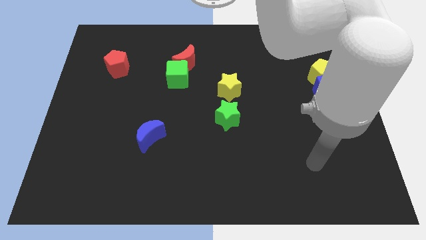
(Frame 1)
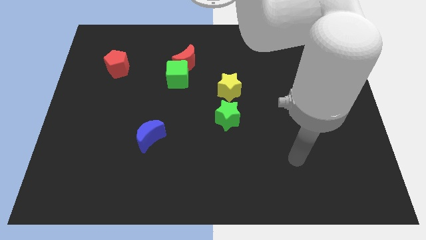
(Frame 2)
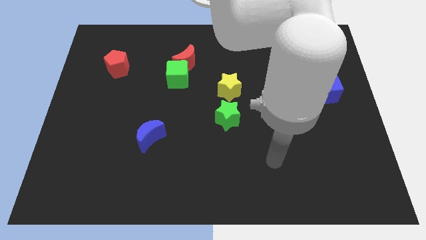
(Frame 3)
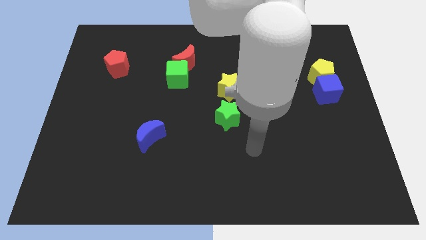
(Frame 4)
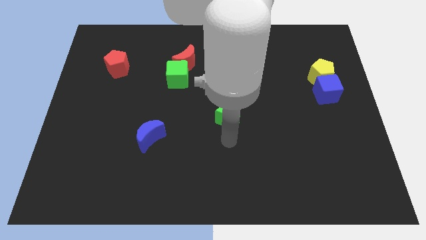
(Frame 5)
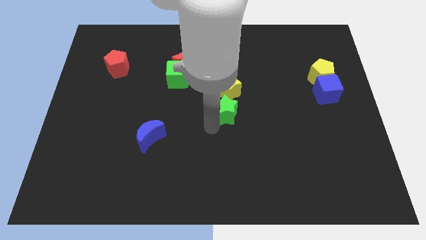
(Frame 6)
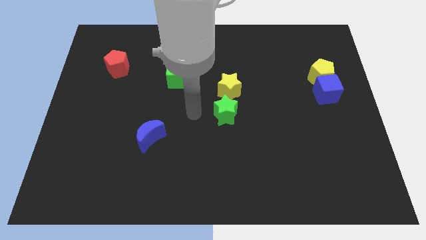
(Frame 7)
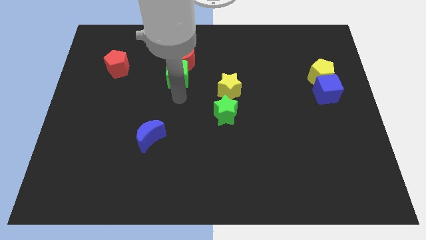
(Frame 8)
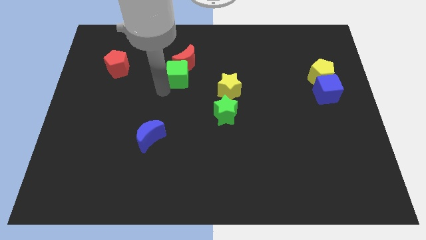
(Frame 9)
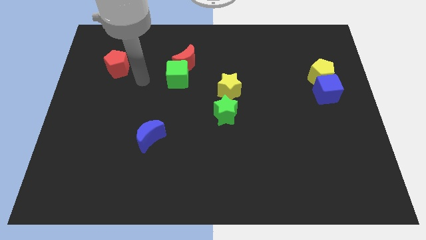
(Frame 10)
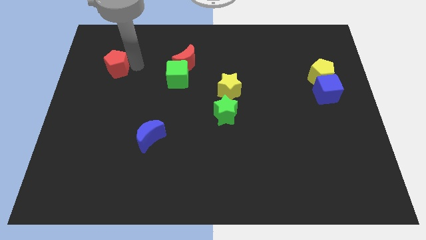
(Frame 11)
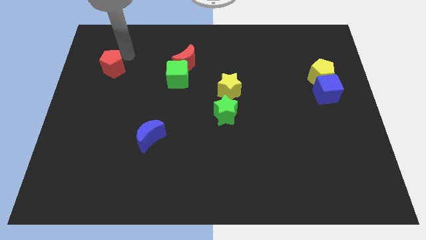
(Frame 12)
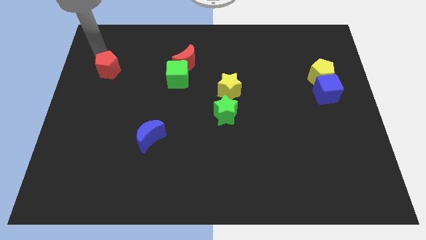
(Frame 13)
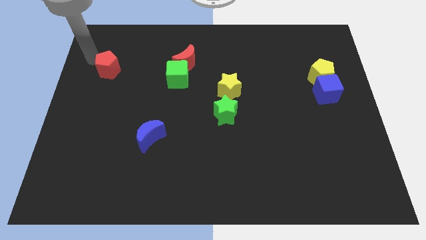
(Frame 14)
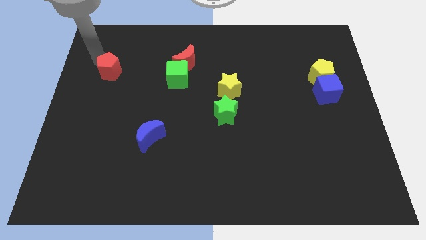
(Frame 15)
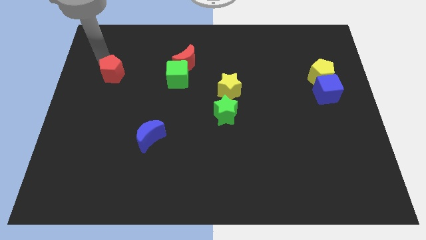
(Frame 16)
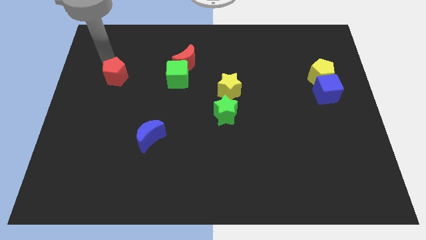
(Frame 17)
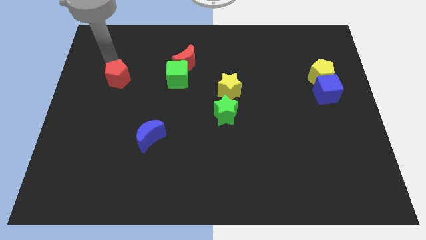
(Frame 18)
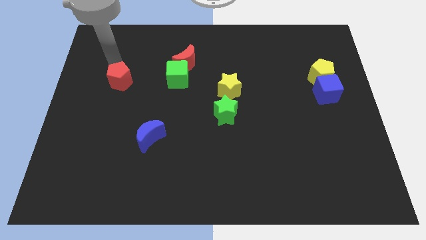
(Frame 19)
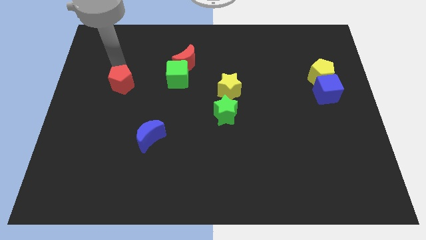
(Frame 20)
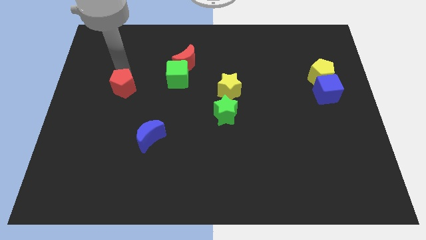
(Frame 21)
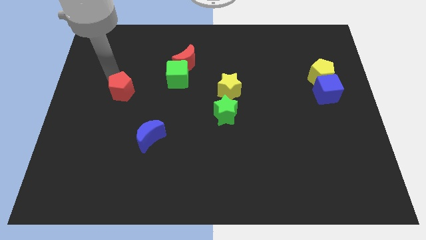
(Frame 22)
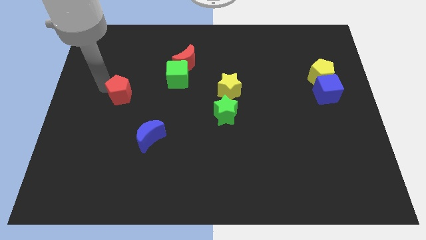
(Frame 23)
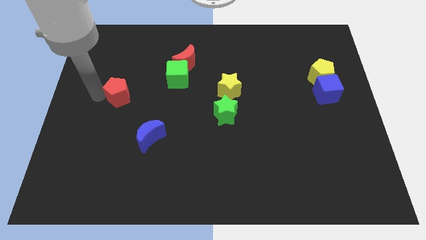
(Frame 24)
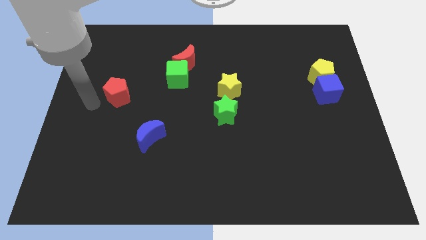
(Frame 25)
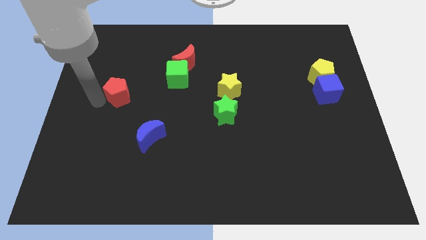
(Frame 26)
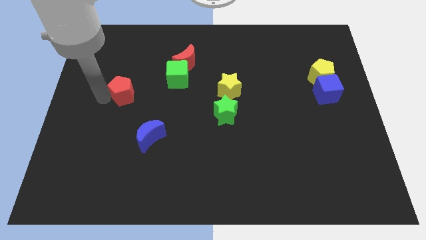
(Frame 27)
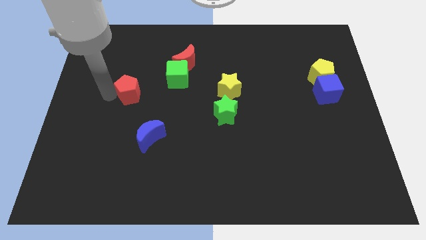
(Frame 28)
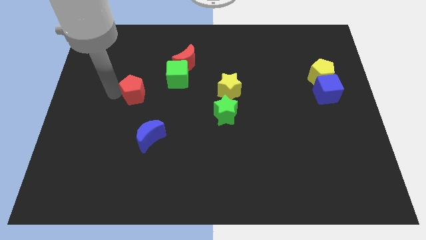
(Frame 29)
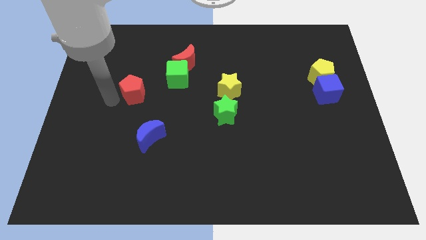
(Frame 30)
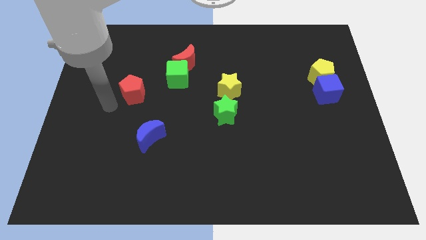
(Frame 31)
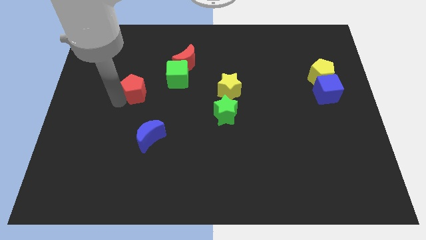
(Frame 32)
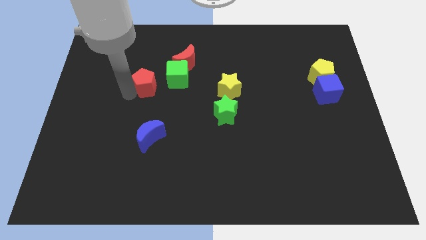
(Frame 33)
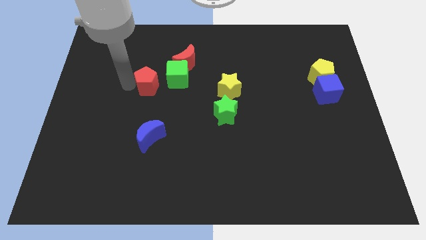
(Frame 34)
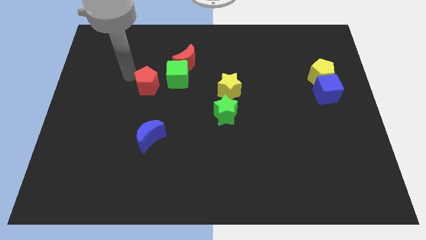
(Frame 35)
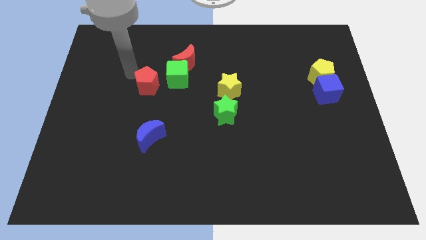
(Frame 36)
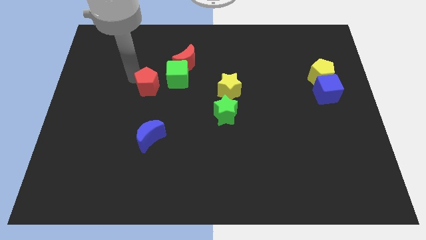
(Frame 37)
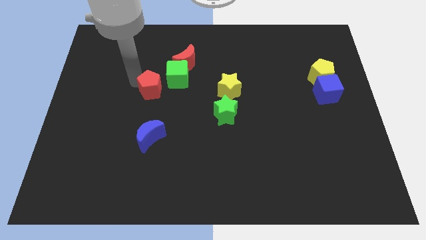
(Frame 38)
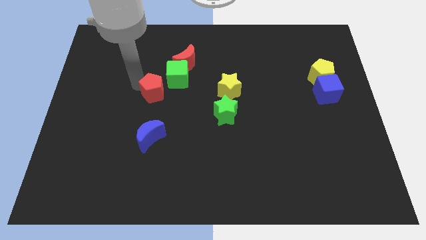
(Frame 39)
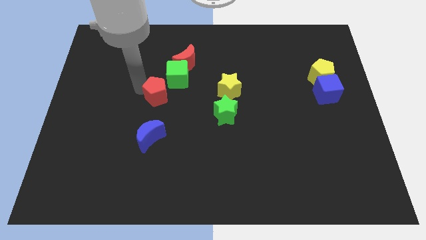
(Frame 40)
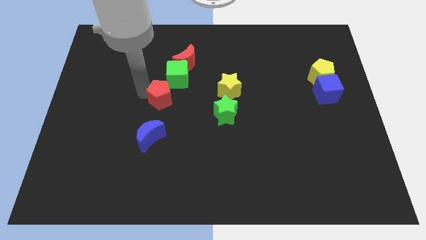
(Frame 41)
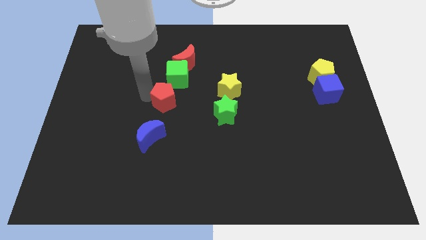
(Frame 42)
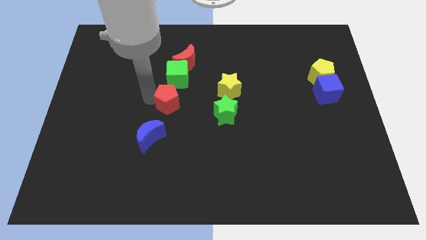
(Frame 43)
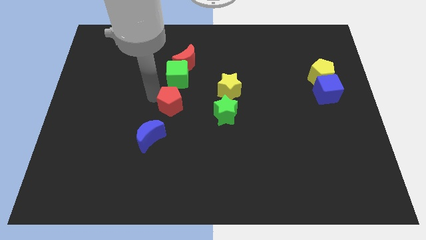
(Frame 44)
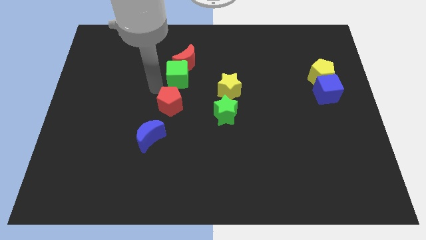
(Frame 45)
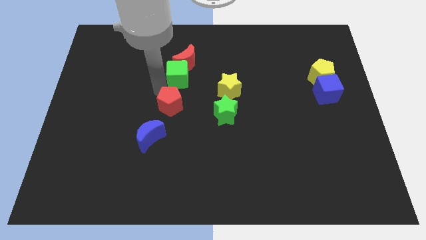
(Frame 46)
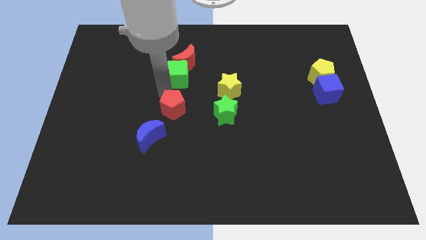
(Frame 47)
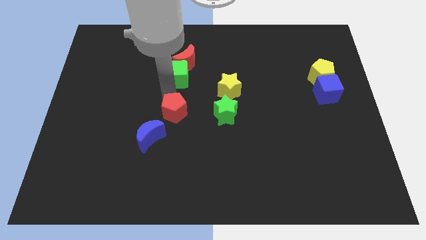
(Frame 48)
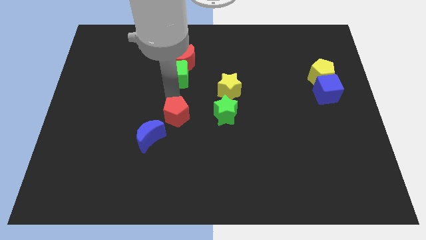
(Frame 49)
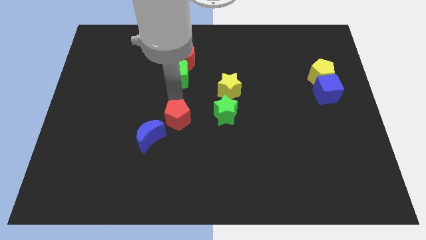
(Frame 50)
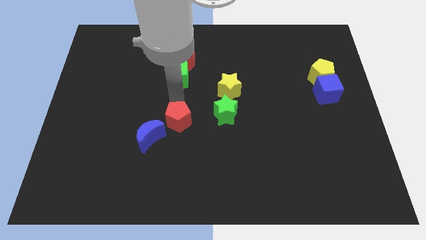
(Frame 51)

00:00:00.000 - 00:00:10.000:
put the red pentagon just right of the blue moon

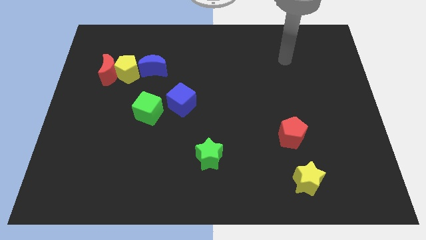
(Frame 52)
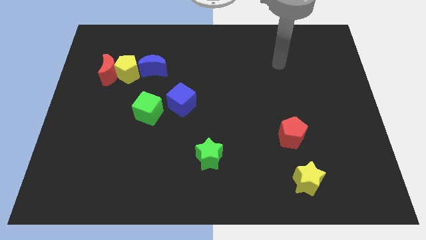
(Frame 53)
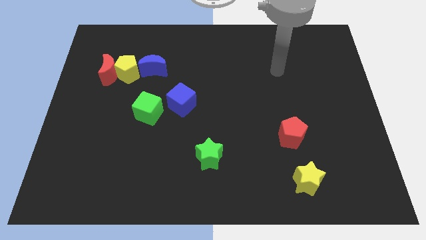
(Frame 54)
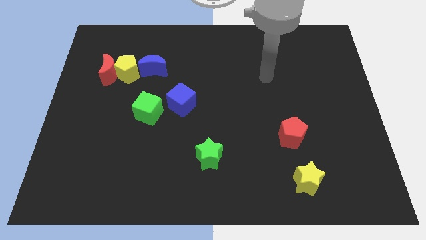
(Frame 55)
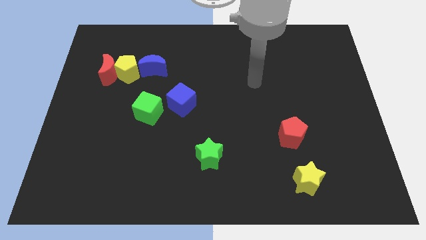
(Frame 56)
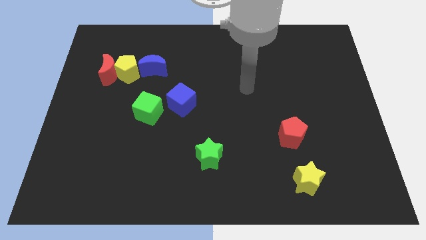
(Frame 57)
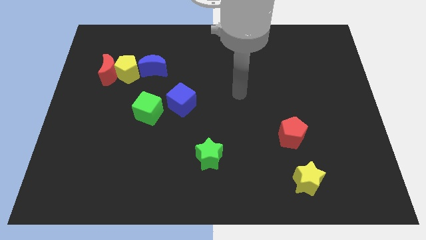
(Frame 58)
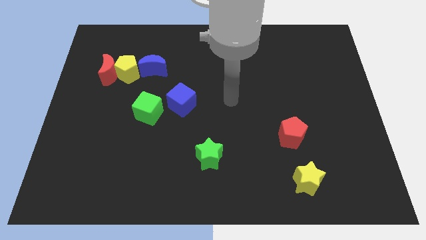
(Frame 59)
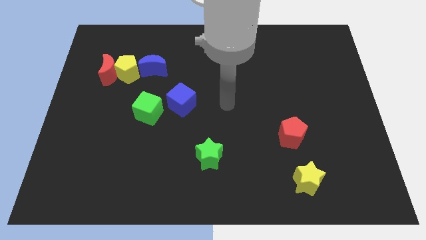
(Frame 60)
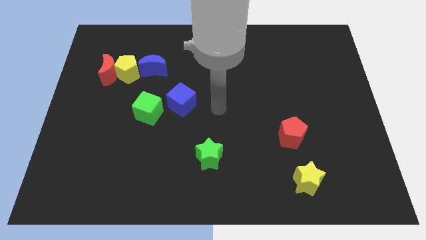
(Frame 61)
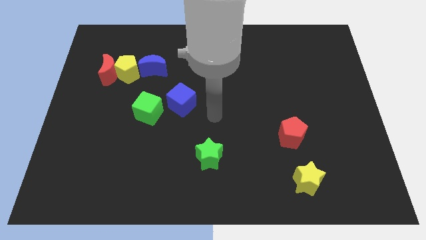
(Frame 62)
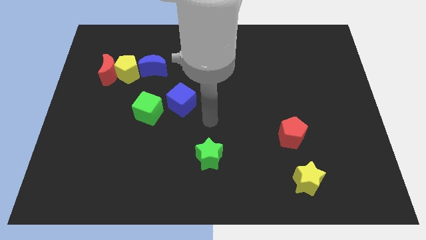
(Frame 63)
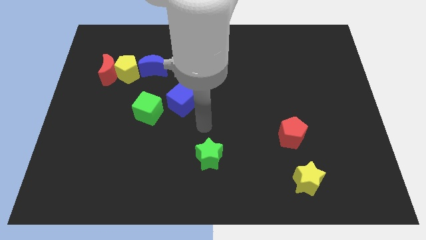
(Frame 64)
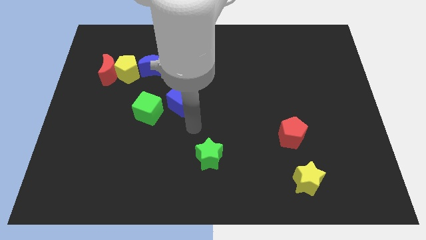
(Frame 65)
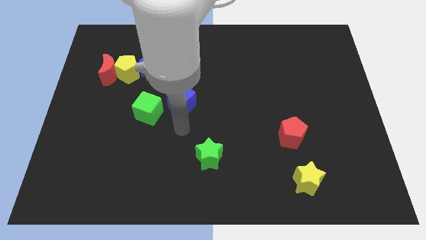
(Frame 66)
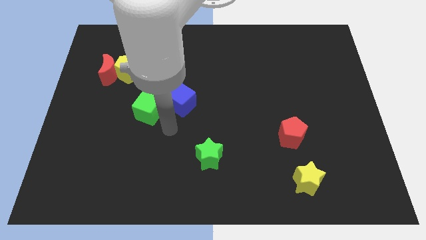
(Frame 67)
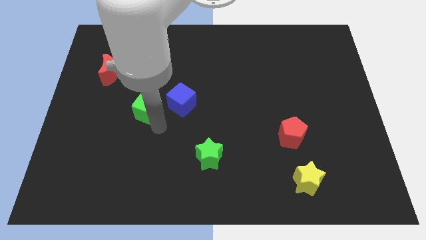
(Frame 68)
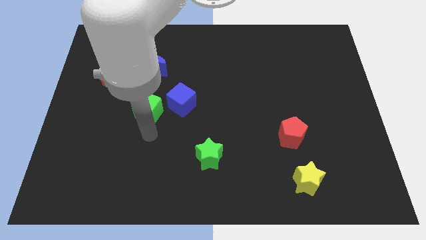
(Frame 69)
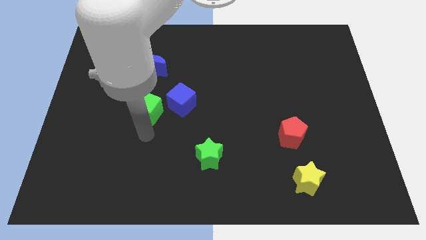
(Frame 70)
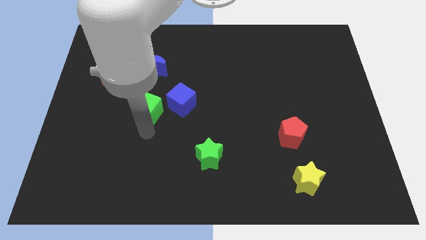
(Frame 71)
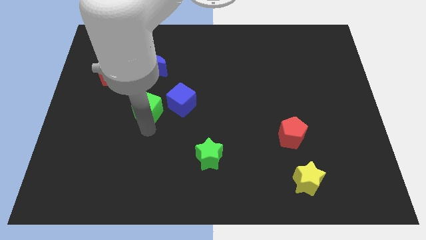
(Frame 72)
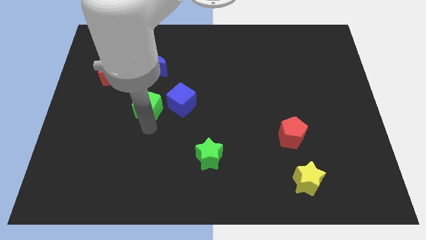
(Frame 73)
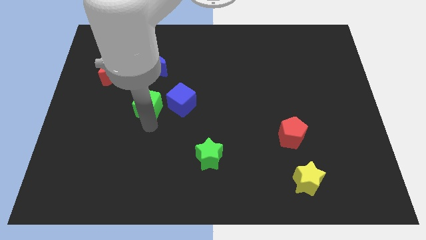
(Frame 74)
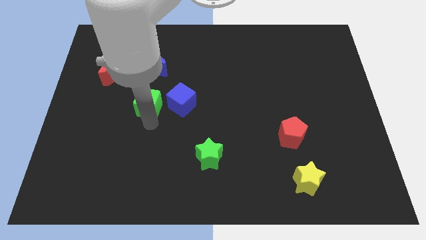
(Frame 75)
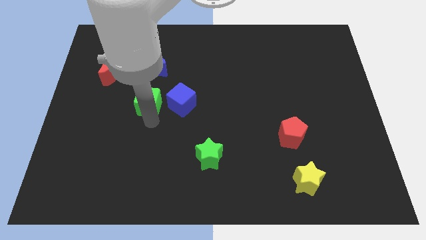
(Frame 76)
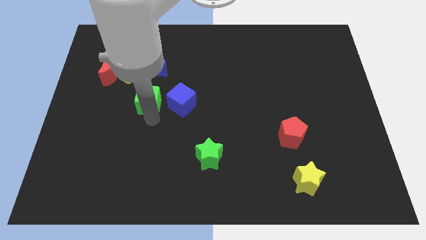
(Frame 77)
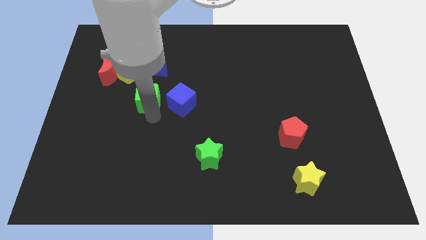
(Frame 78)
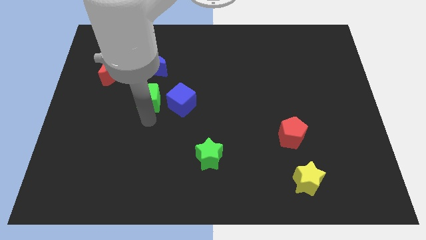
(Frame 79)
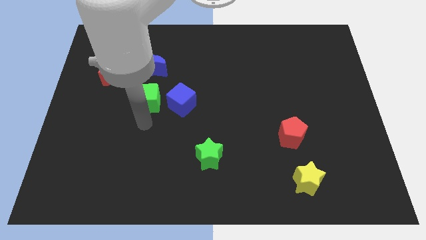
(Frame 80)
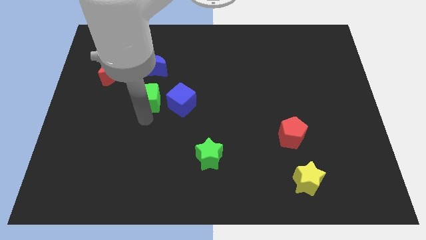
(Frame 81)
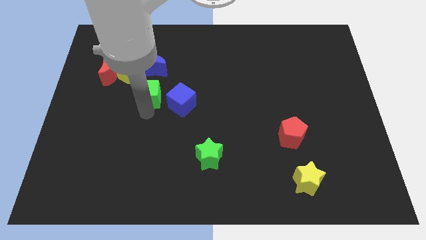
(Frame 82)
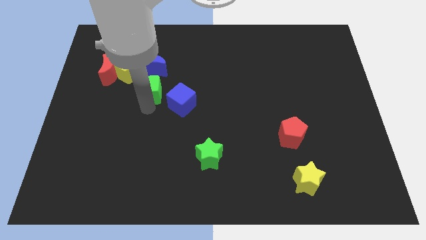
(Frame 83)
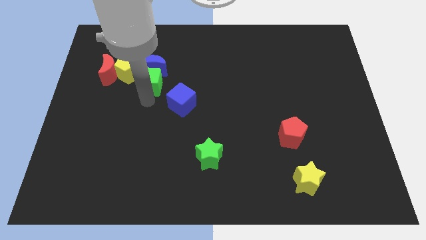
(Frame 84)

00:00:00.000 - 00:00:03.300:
push the green cube right of the red moon
